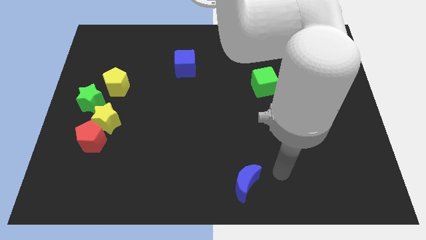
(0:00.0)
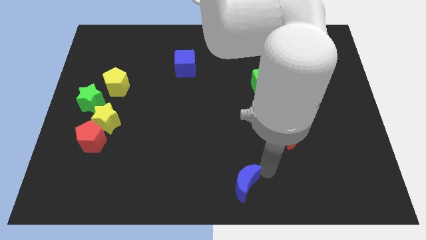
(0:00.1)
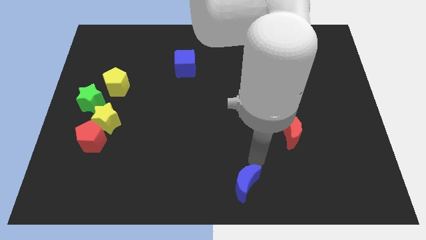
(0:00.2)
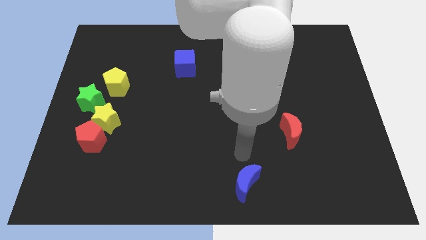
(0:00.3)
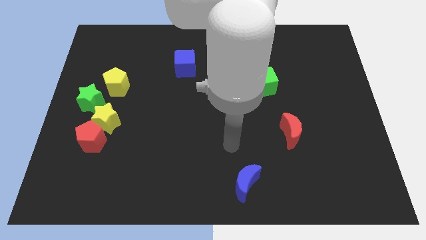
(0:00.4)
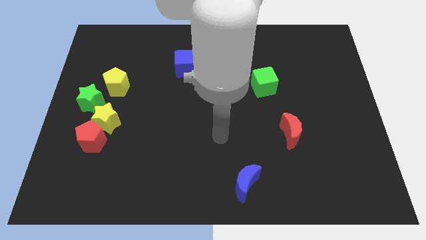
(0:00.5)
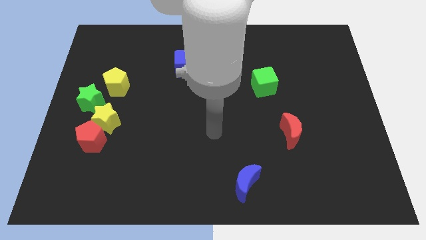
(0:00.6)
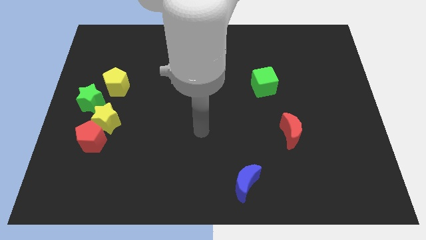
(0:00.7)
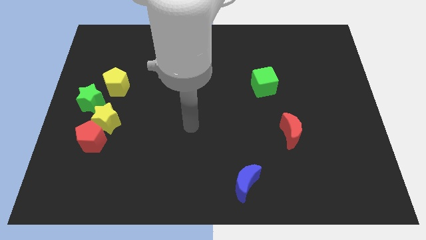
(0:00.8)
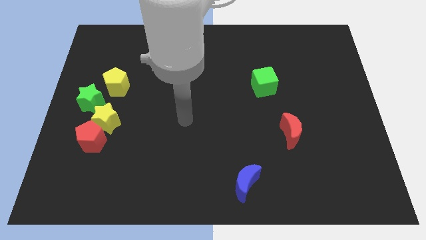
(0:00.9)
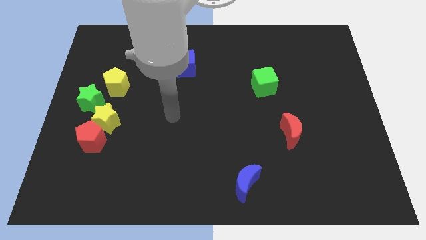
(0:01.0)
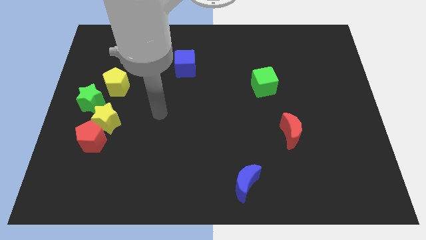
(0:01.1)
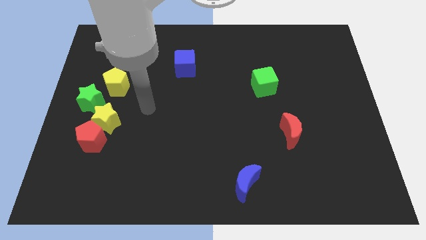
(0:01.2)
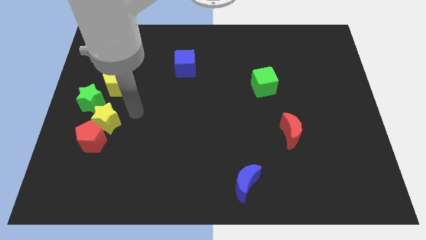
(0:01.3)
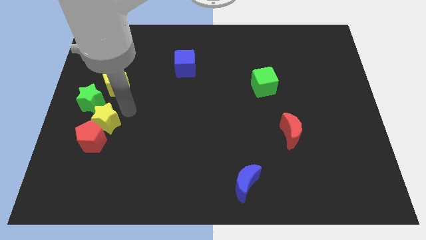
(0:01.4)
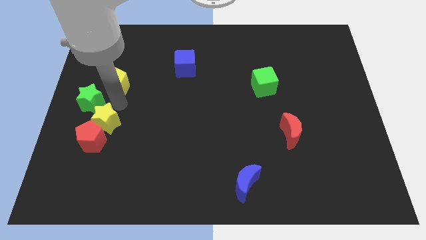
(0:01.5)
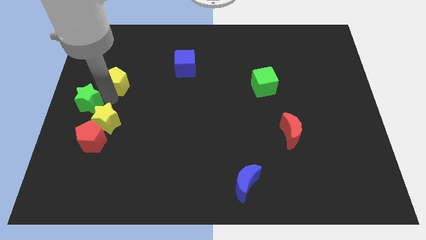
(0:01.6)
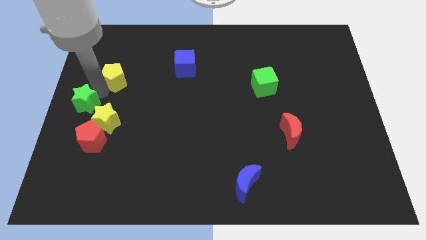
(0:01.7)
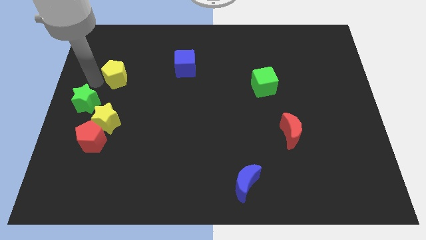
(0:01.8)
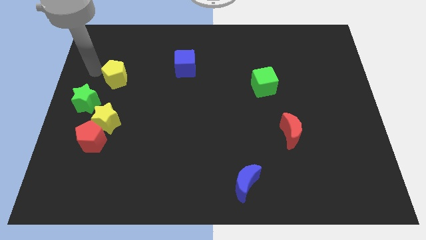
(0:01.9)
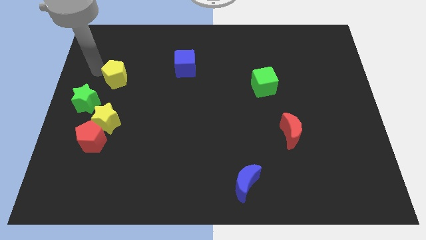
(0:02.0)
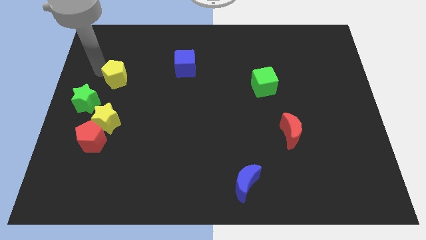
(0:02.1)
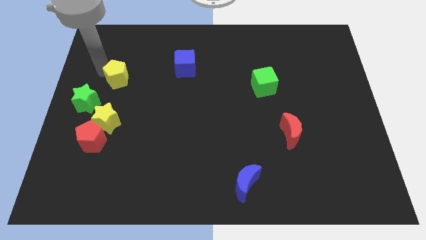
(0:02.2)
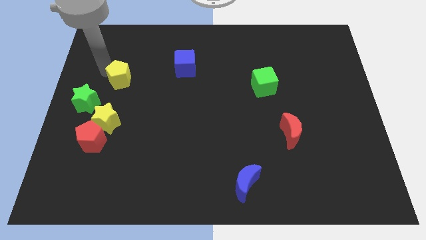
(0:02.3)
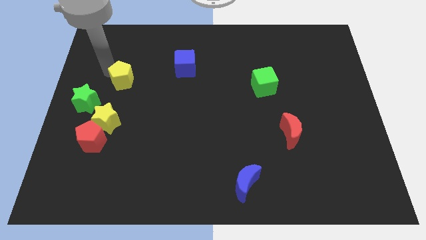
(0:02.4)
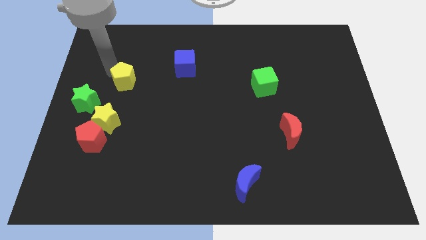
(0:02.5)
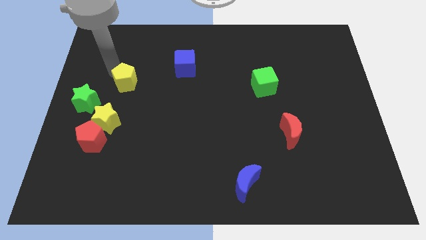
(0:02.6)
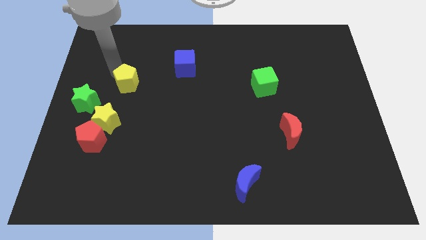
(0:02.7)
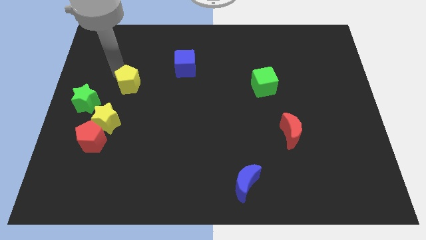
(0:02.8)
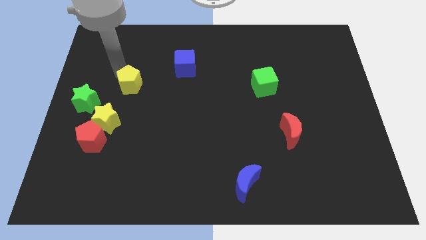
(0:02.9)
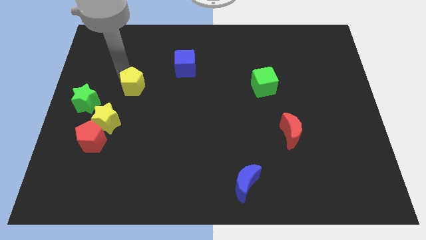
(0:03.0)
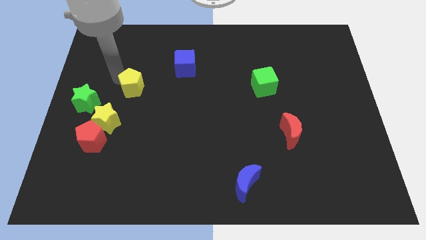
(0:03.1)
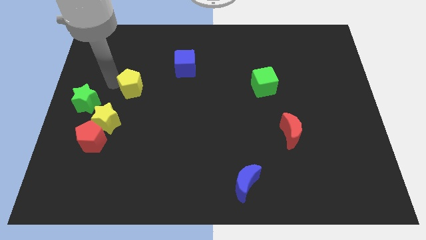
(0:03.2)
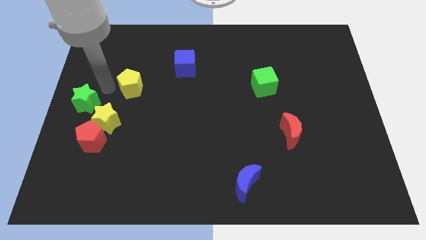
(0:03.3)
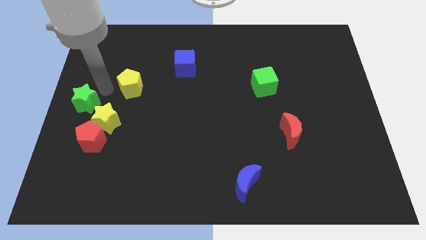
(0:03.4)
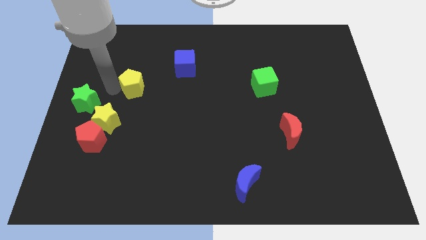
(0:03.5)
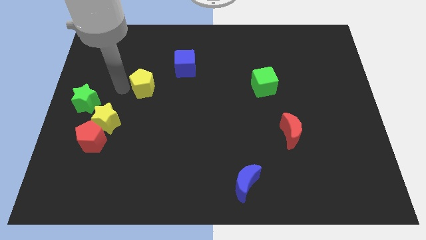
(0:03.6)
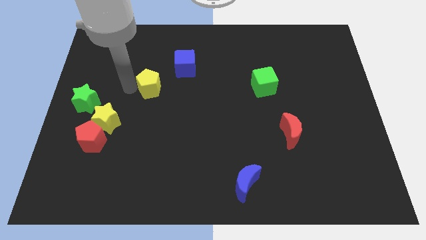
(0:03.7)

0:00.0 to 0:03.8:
push the yellow pentagon right a bit

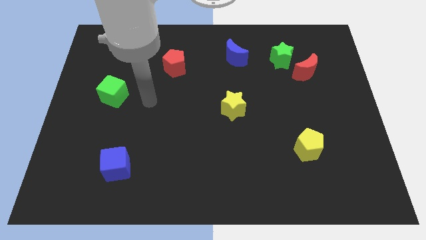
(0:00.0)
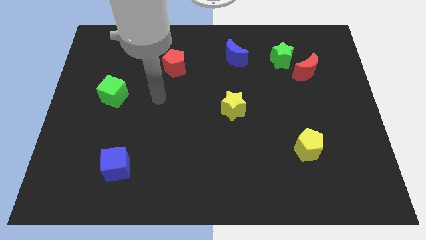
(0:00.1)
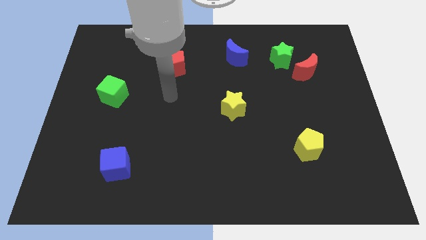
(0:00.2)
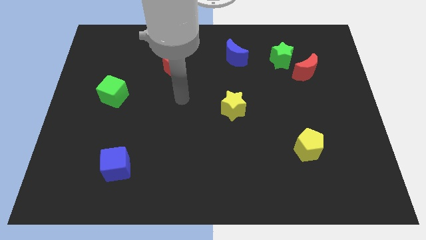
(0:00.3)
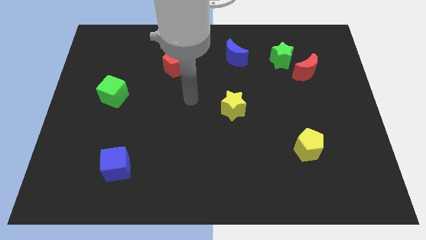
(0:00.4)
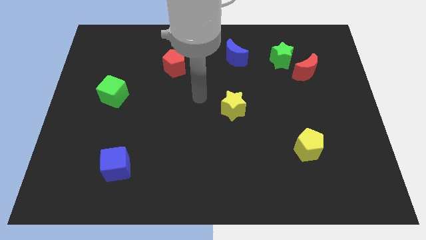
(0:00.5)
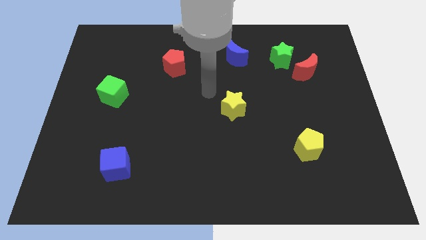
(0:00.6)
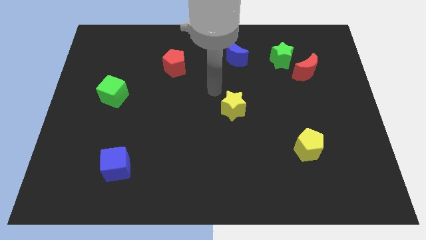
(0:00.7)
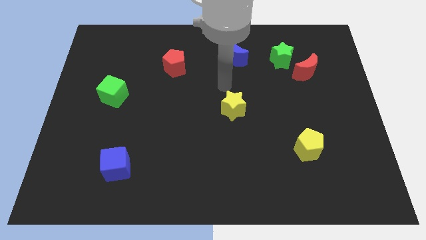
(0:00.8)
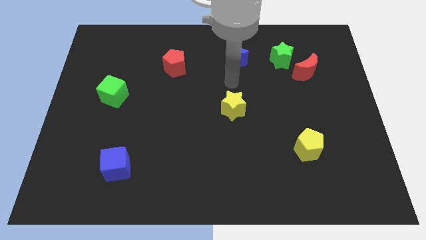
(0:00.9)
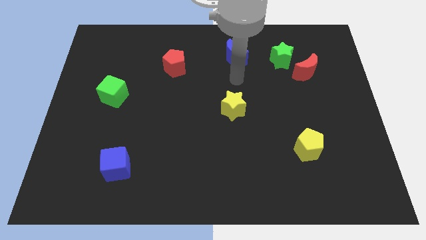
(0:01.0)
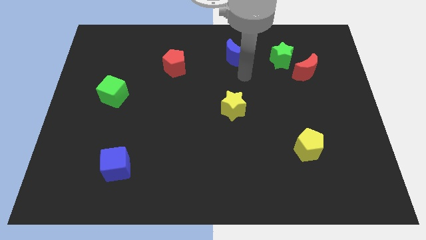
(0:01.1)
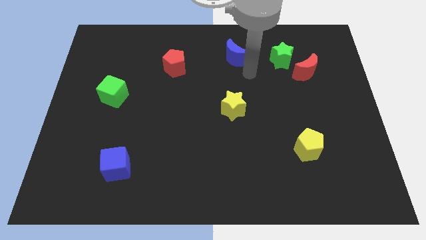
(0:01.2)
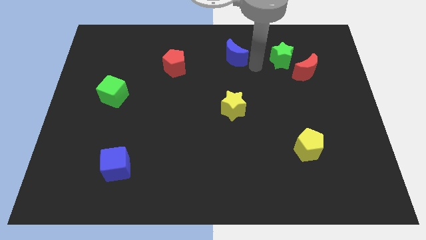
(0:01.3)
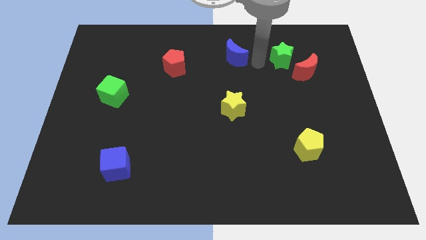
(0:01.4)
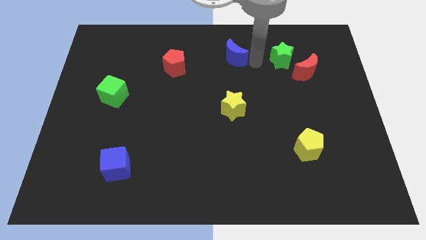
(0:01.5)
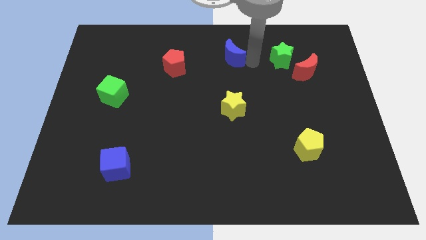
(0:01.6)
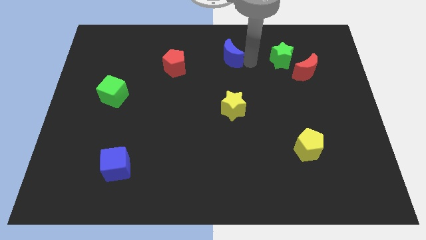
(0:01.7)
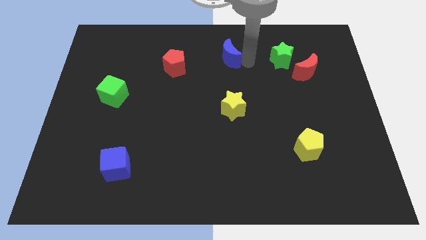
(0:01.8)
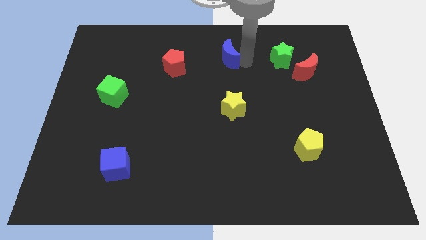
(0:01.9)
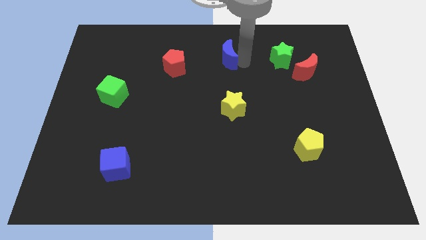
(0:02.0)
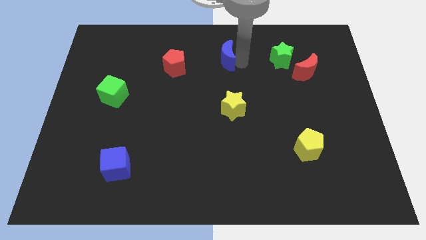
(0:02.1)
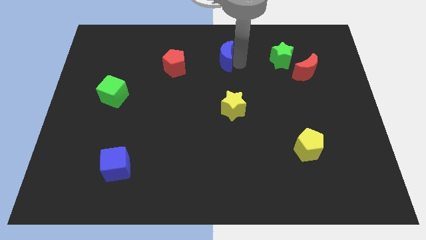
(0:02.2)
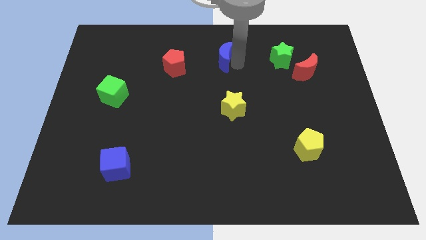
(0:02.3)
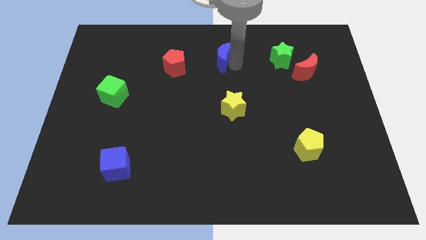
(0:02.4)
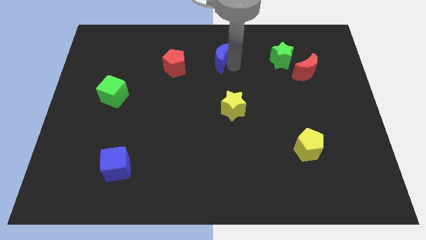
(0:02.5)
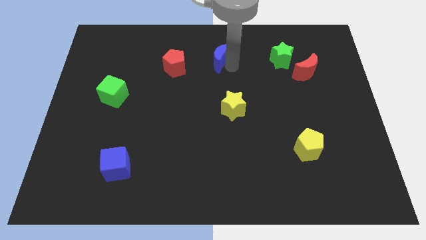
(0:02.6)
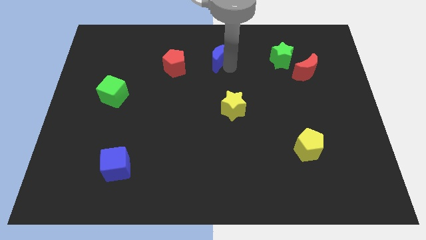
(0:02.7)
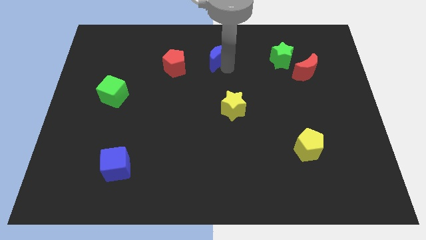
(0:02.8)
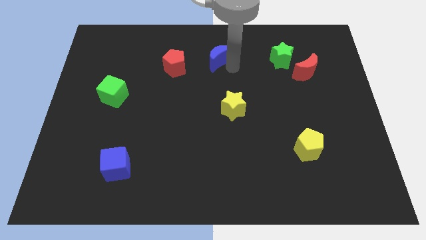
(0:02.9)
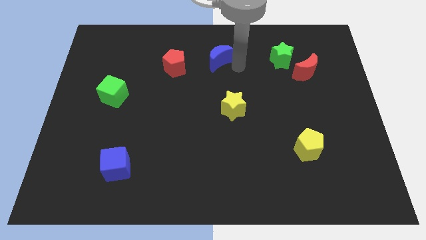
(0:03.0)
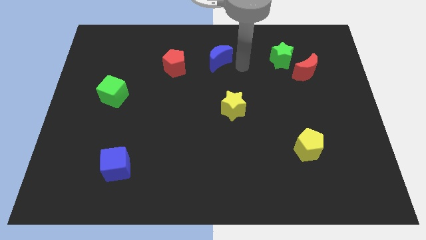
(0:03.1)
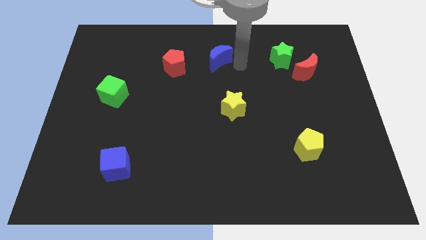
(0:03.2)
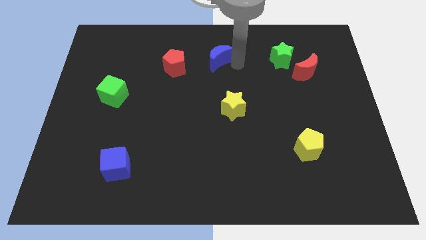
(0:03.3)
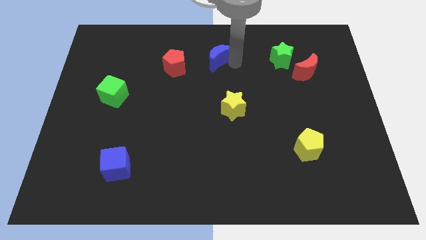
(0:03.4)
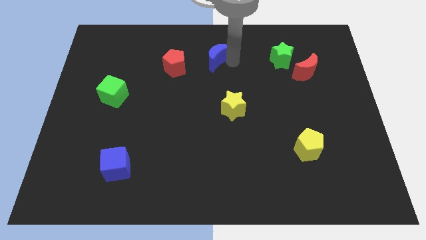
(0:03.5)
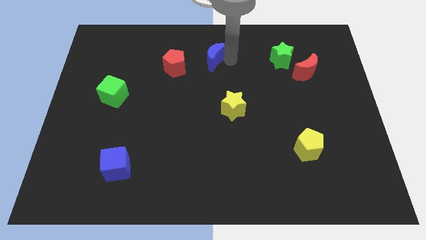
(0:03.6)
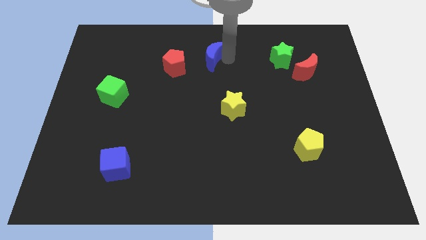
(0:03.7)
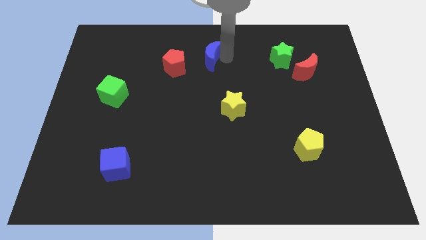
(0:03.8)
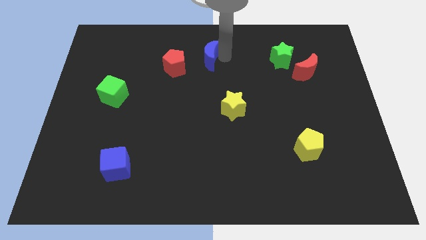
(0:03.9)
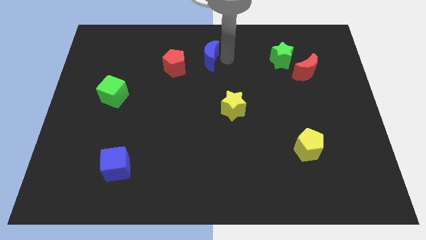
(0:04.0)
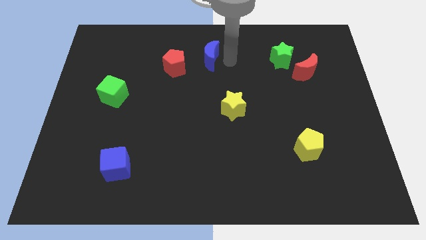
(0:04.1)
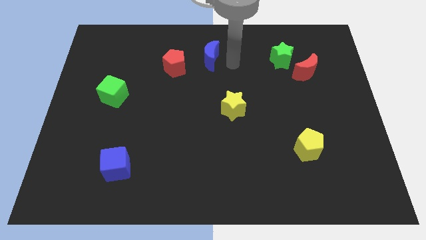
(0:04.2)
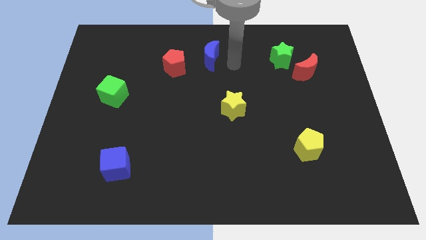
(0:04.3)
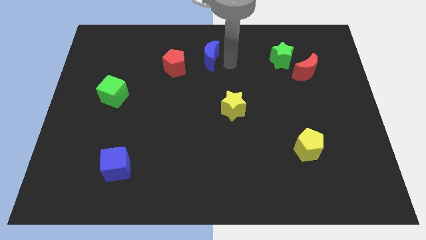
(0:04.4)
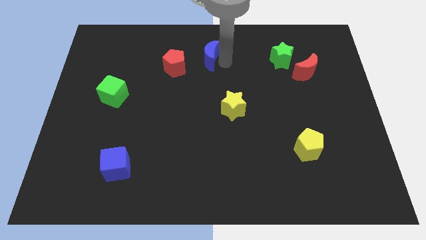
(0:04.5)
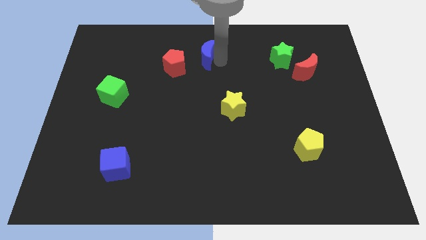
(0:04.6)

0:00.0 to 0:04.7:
slightly move the blue moon to the left
